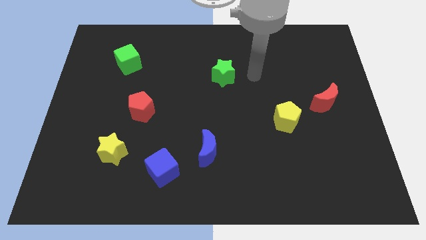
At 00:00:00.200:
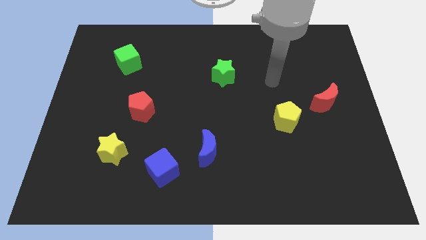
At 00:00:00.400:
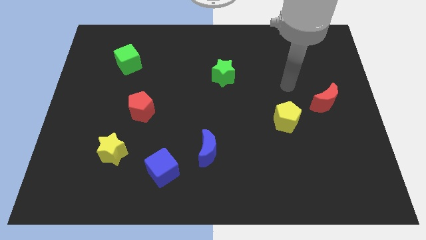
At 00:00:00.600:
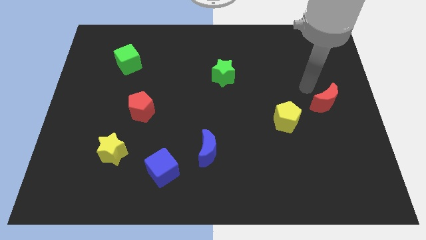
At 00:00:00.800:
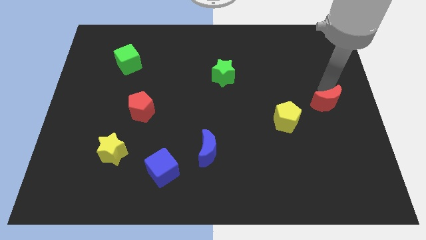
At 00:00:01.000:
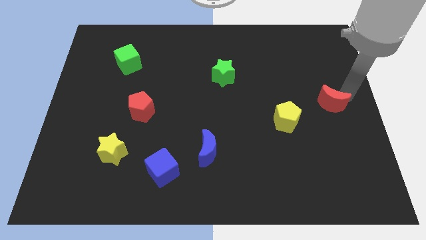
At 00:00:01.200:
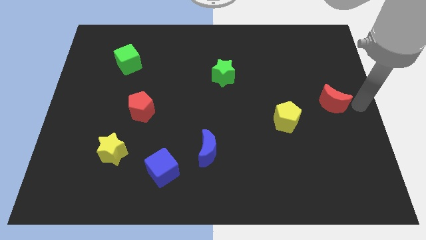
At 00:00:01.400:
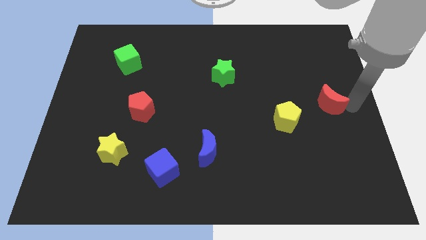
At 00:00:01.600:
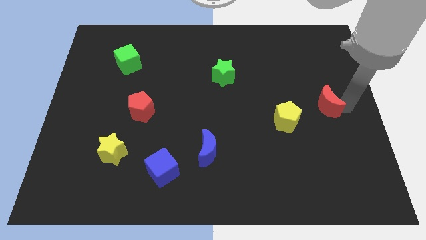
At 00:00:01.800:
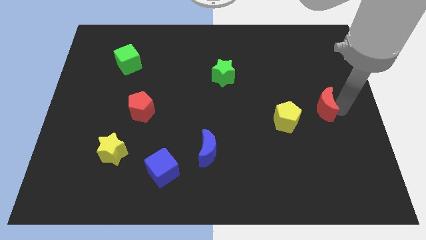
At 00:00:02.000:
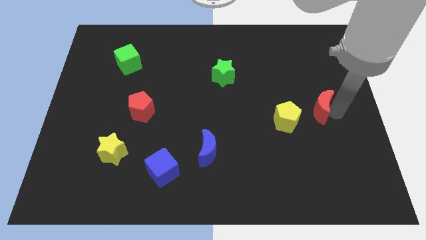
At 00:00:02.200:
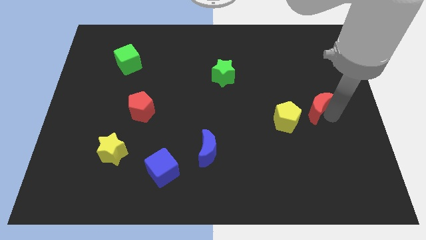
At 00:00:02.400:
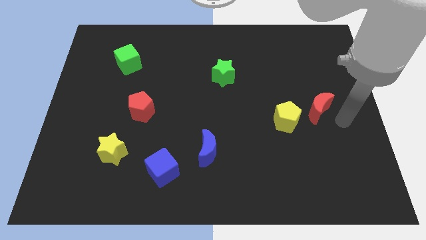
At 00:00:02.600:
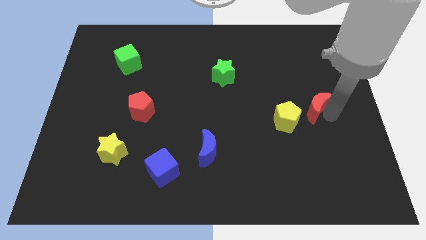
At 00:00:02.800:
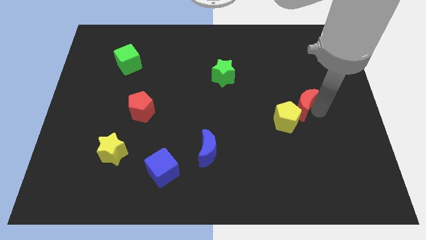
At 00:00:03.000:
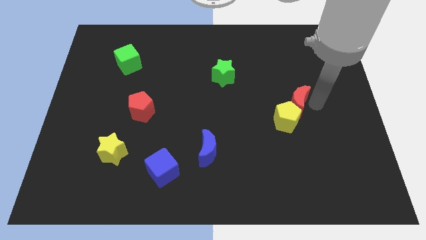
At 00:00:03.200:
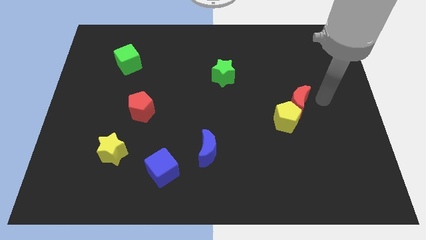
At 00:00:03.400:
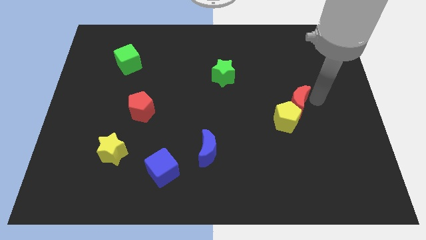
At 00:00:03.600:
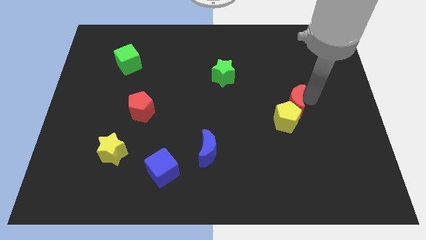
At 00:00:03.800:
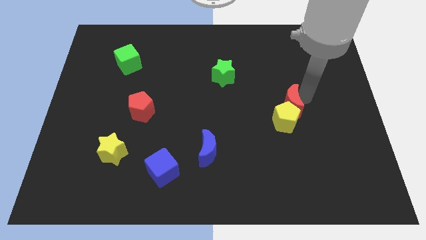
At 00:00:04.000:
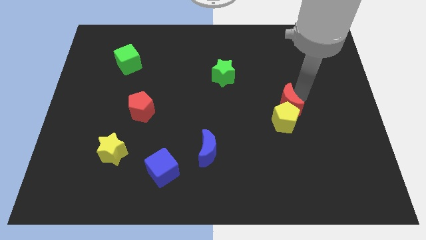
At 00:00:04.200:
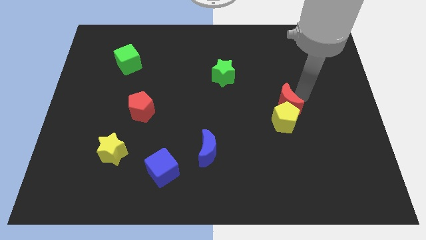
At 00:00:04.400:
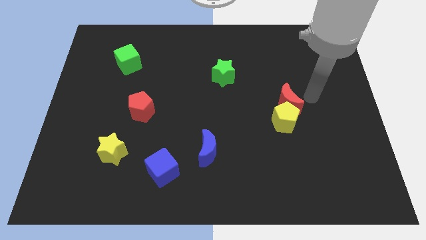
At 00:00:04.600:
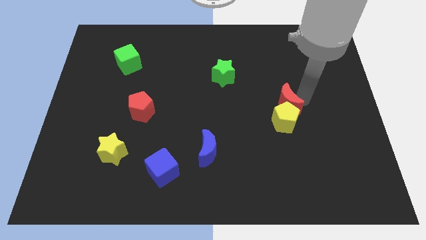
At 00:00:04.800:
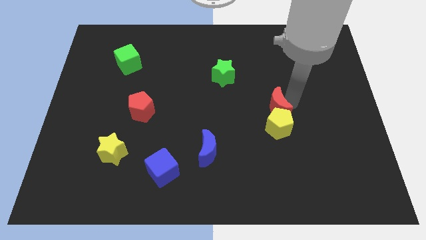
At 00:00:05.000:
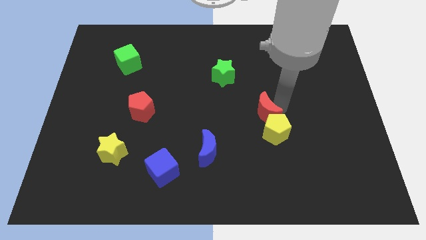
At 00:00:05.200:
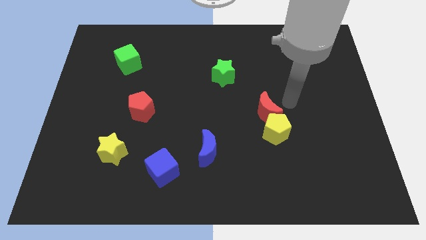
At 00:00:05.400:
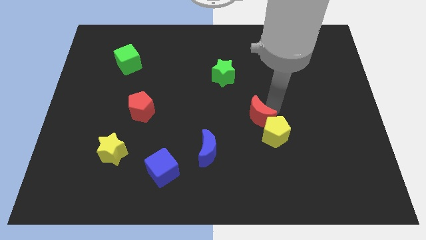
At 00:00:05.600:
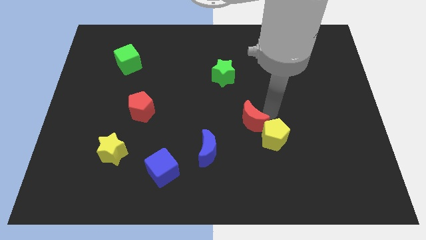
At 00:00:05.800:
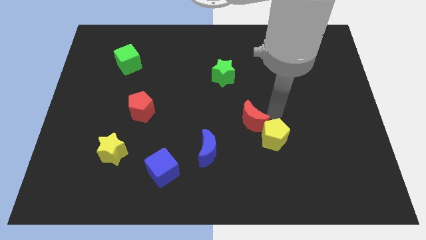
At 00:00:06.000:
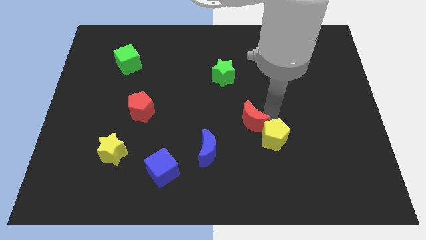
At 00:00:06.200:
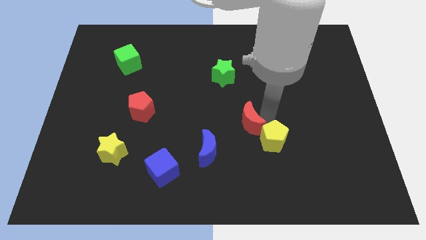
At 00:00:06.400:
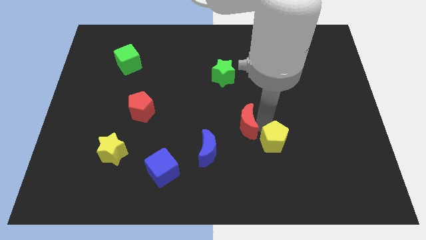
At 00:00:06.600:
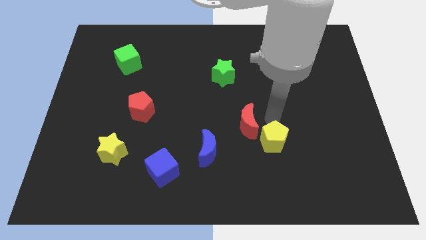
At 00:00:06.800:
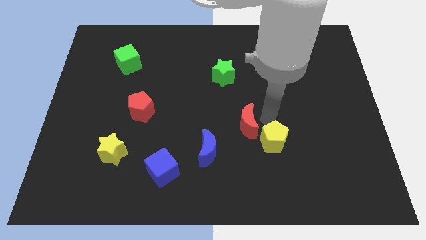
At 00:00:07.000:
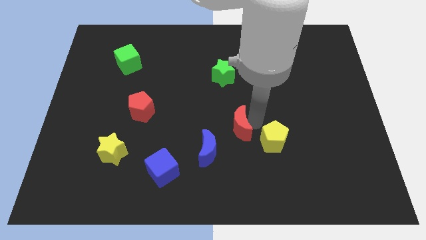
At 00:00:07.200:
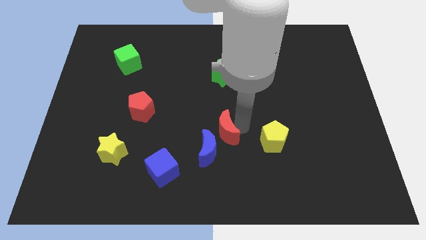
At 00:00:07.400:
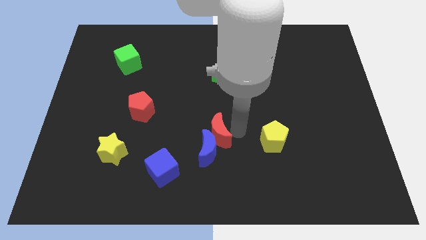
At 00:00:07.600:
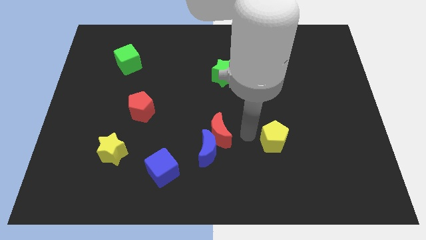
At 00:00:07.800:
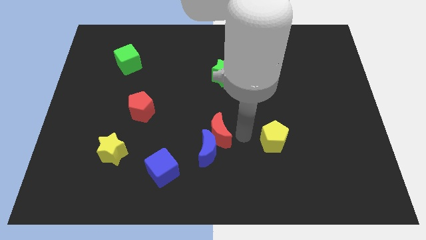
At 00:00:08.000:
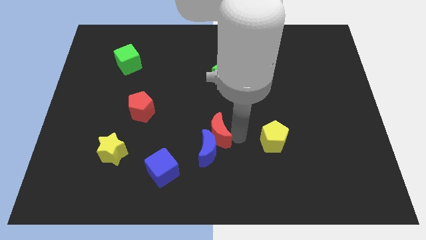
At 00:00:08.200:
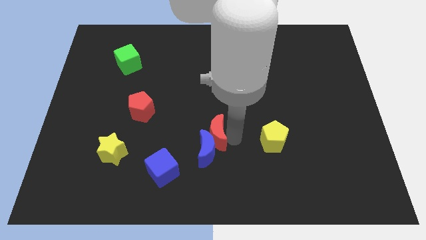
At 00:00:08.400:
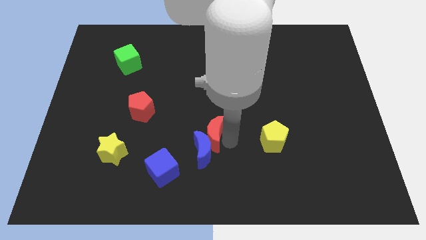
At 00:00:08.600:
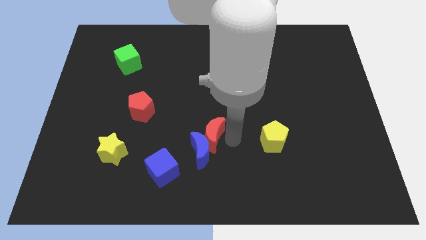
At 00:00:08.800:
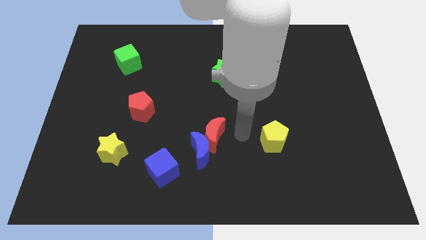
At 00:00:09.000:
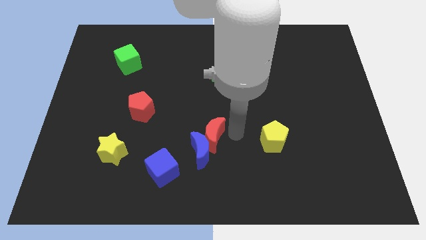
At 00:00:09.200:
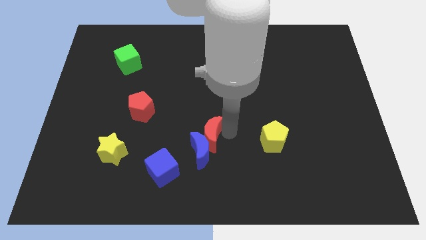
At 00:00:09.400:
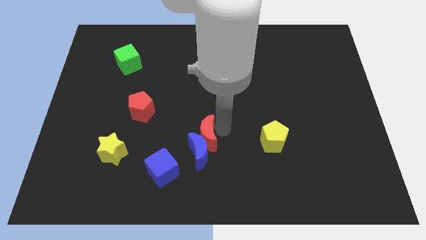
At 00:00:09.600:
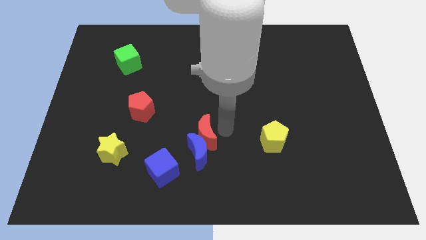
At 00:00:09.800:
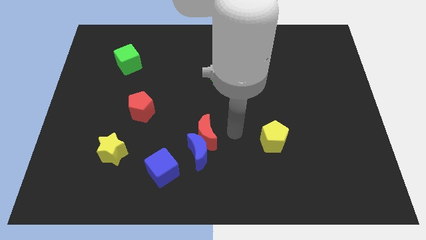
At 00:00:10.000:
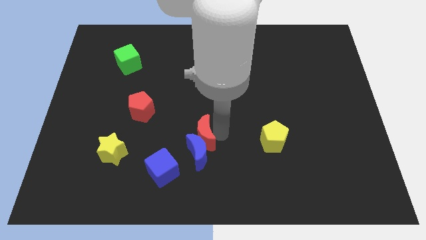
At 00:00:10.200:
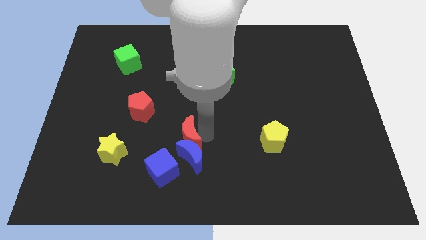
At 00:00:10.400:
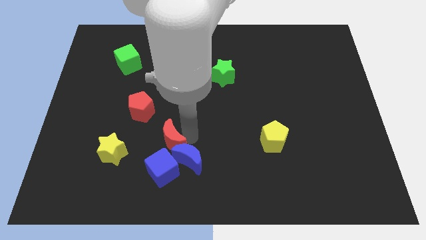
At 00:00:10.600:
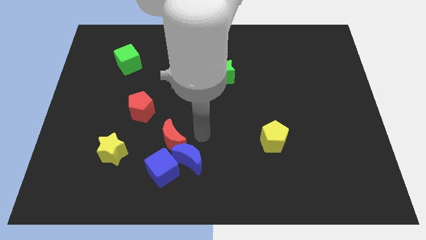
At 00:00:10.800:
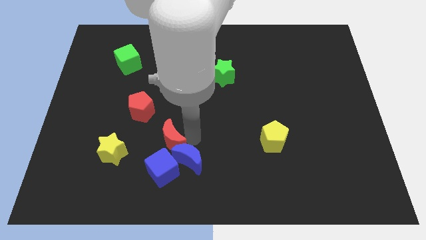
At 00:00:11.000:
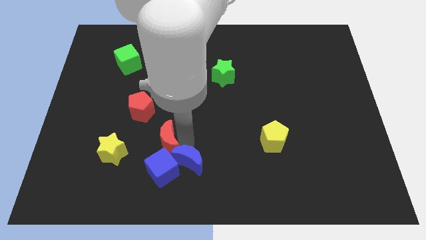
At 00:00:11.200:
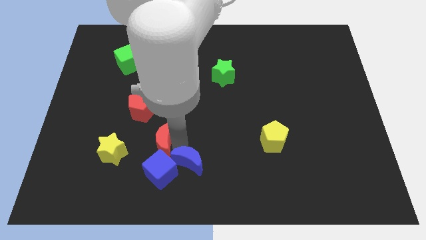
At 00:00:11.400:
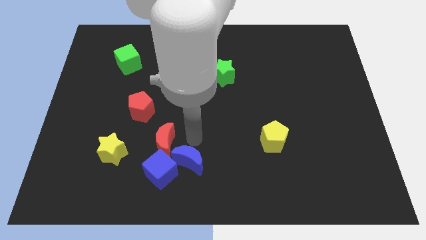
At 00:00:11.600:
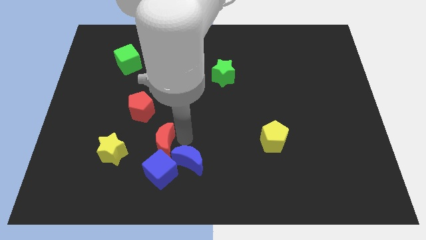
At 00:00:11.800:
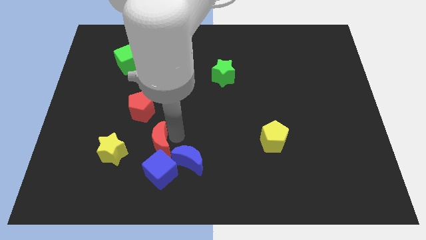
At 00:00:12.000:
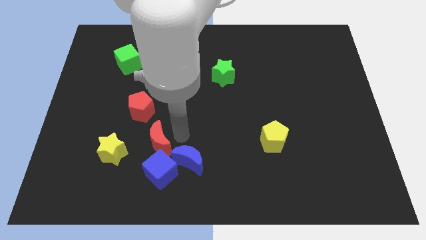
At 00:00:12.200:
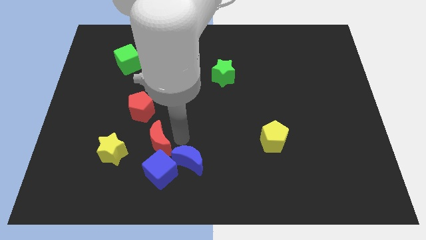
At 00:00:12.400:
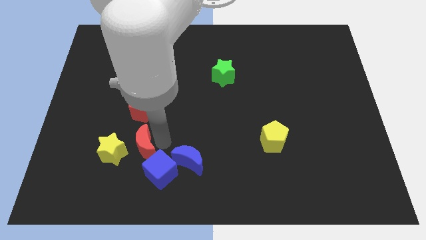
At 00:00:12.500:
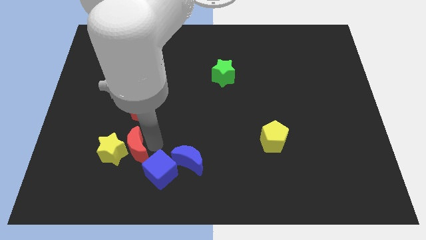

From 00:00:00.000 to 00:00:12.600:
push the red moon close to the yellow star

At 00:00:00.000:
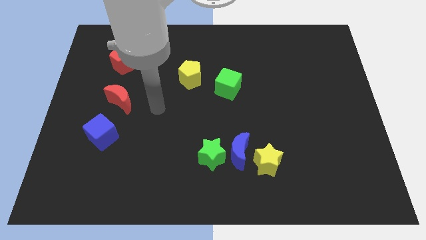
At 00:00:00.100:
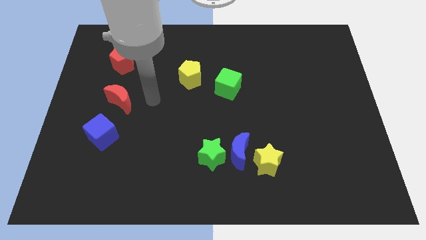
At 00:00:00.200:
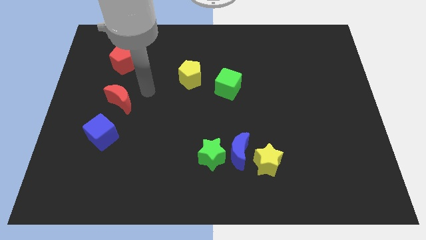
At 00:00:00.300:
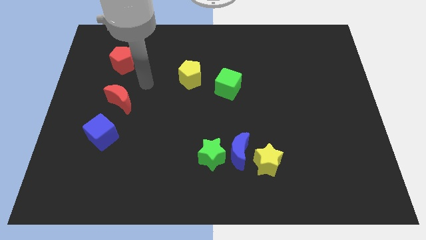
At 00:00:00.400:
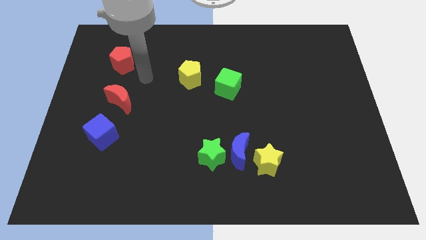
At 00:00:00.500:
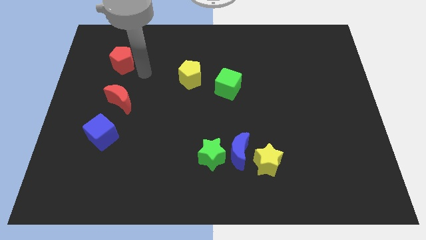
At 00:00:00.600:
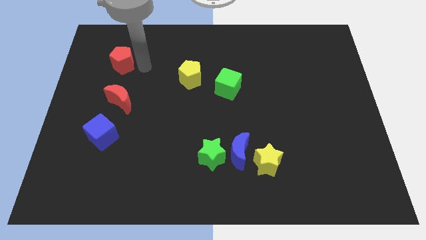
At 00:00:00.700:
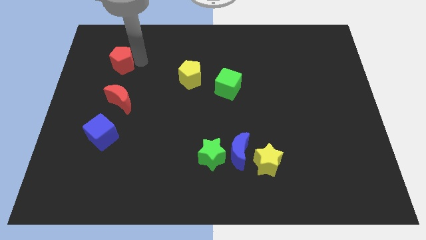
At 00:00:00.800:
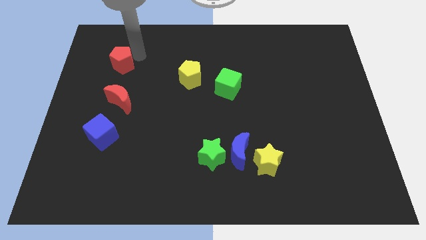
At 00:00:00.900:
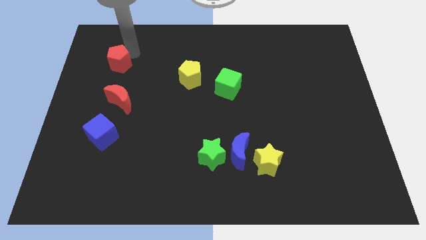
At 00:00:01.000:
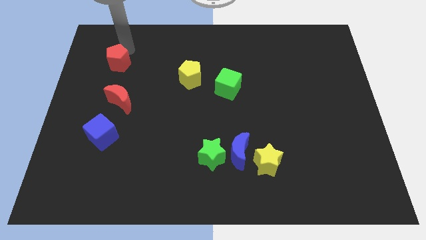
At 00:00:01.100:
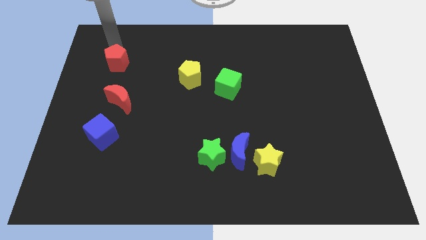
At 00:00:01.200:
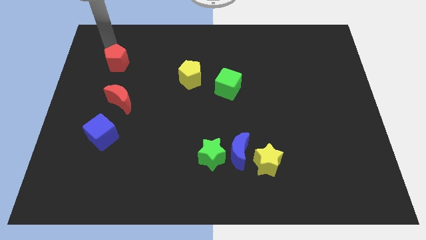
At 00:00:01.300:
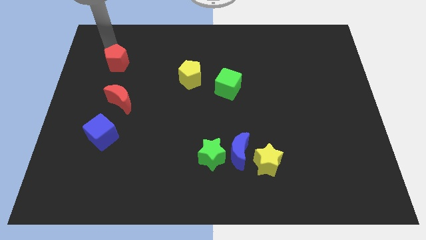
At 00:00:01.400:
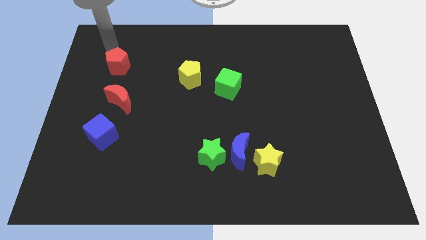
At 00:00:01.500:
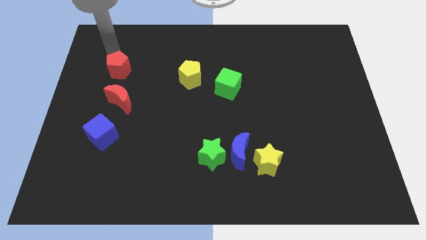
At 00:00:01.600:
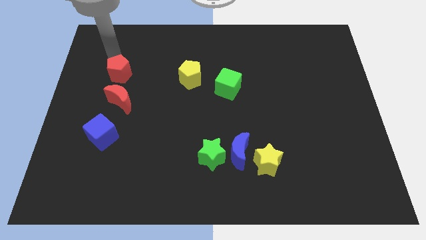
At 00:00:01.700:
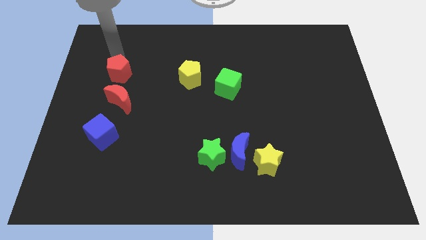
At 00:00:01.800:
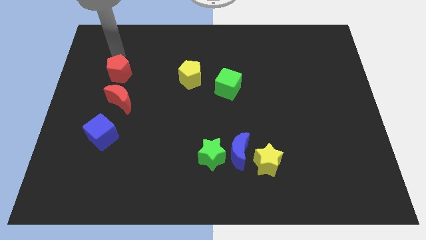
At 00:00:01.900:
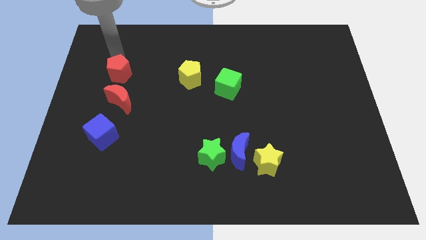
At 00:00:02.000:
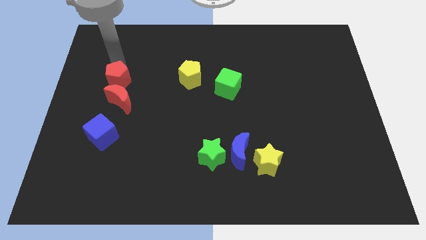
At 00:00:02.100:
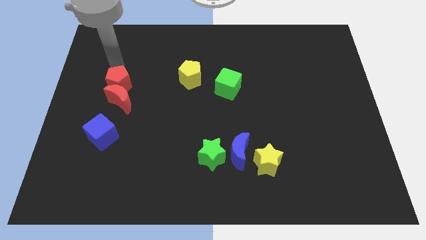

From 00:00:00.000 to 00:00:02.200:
push the red pentagon close to the red moon
